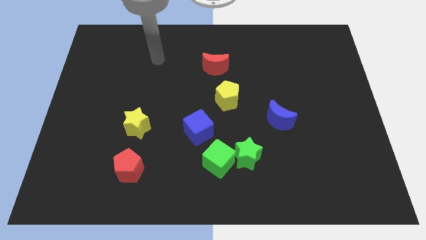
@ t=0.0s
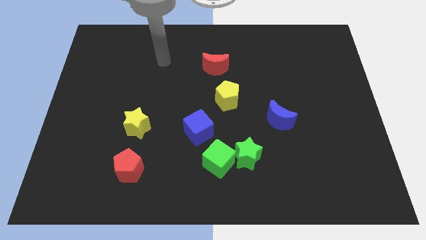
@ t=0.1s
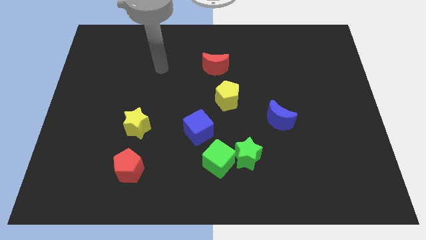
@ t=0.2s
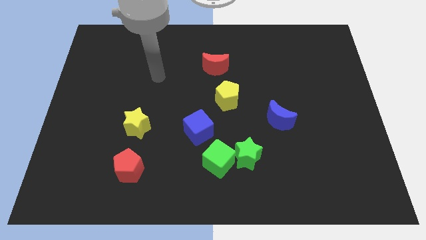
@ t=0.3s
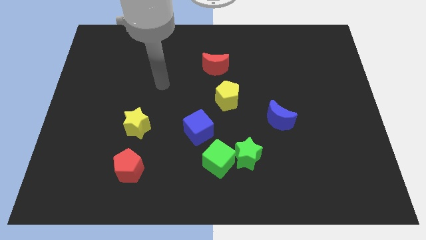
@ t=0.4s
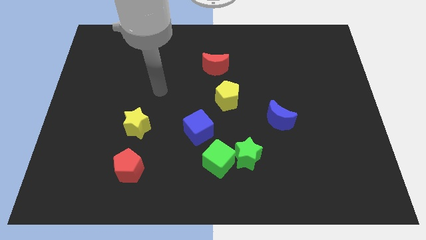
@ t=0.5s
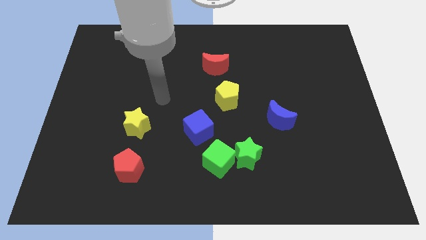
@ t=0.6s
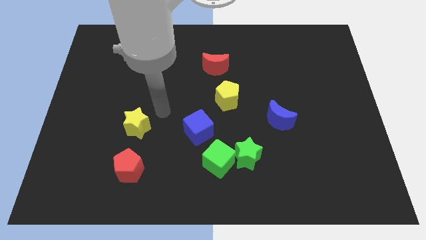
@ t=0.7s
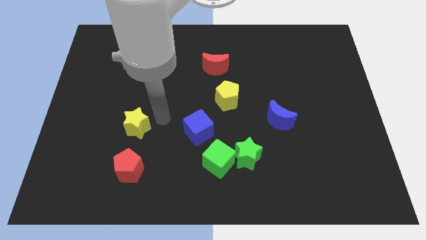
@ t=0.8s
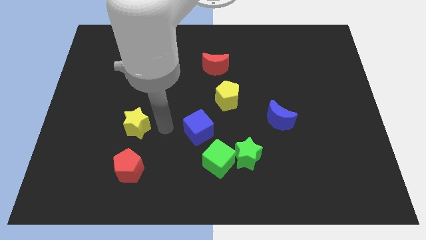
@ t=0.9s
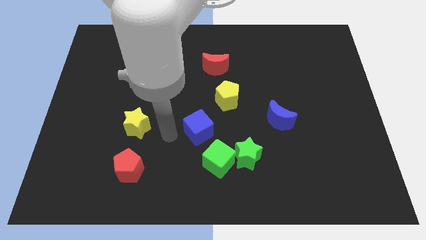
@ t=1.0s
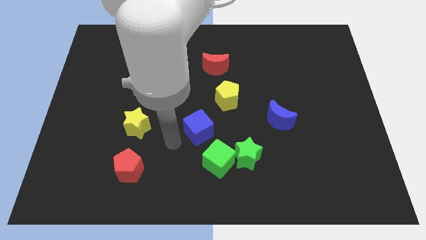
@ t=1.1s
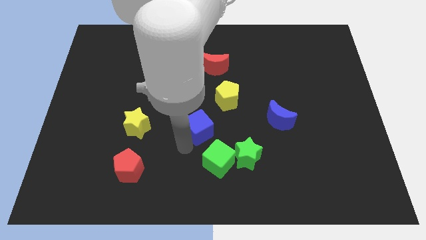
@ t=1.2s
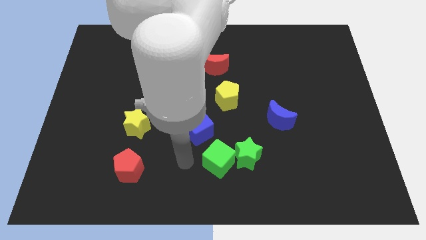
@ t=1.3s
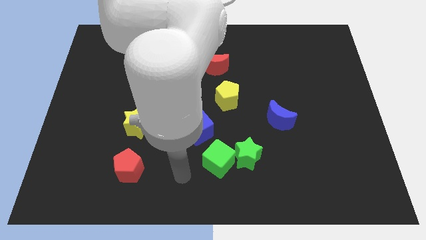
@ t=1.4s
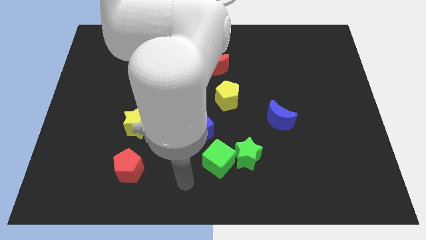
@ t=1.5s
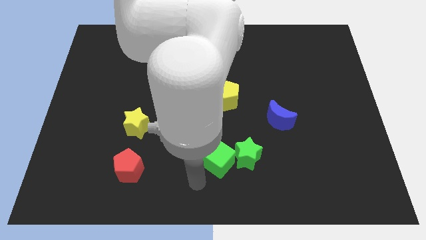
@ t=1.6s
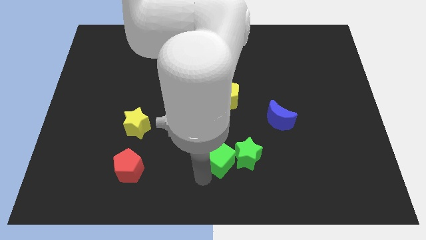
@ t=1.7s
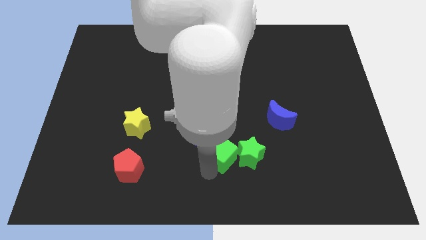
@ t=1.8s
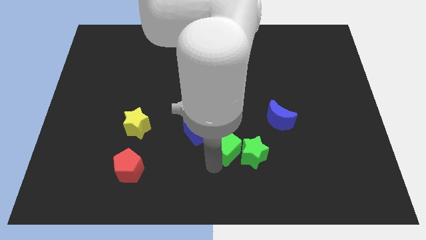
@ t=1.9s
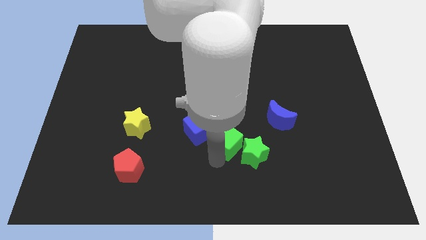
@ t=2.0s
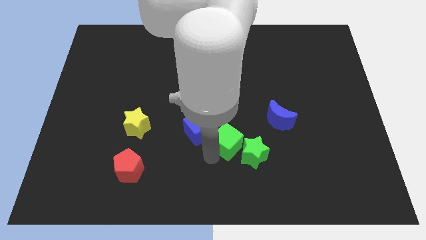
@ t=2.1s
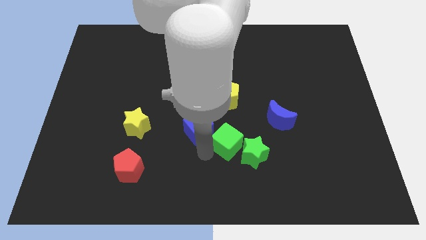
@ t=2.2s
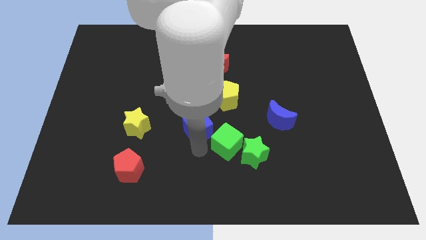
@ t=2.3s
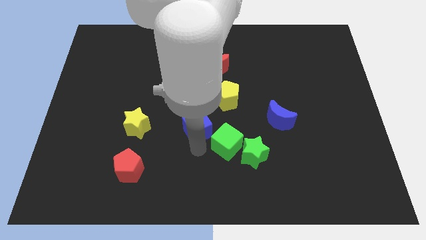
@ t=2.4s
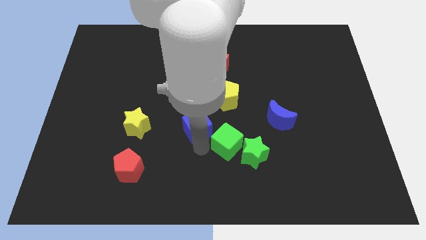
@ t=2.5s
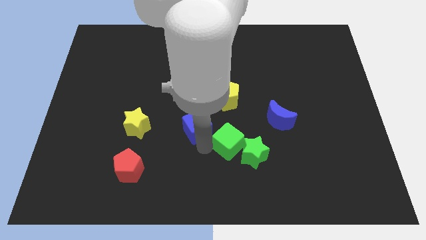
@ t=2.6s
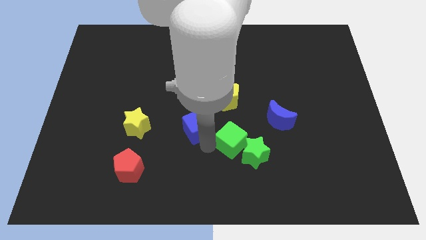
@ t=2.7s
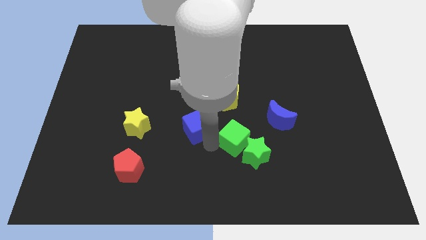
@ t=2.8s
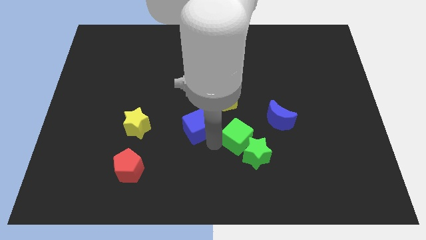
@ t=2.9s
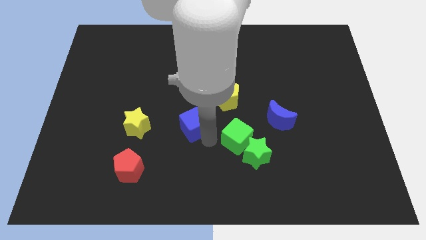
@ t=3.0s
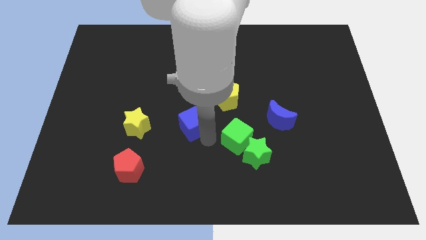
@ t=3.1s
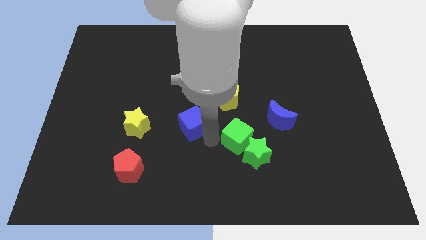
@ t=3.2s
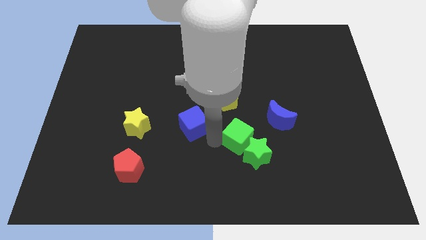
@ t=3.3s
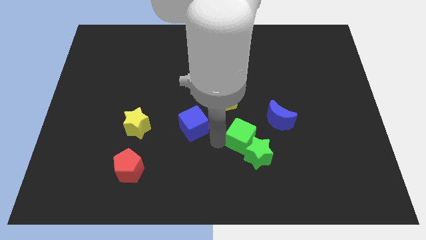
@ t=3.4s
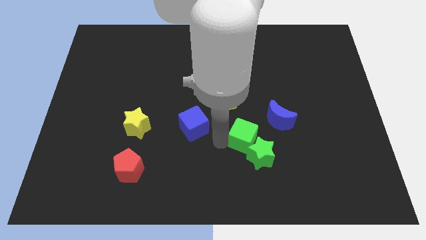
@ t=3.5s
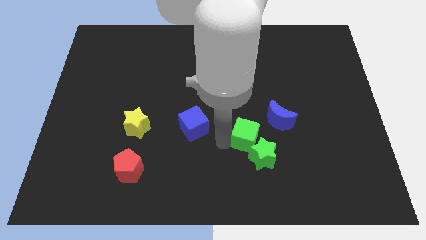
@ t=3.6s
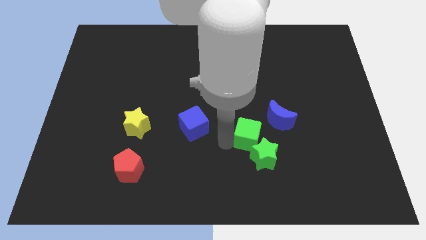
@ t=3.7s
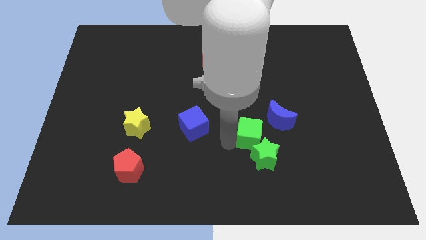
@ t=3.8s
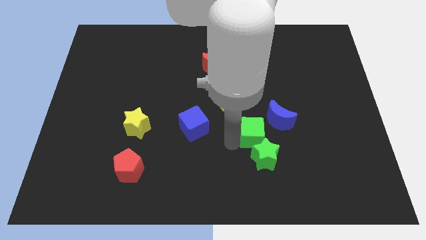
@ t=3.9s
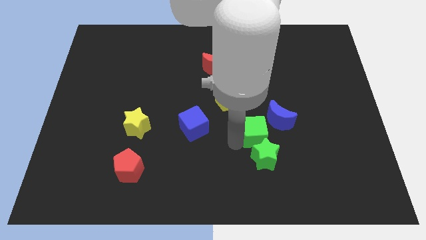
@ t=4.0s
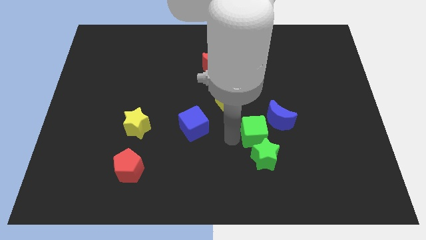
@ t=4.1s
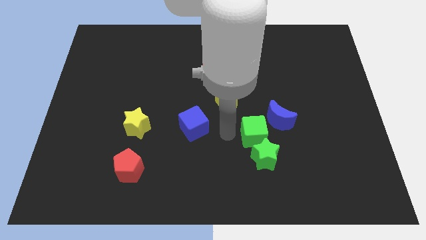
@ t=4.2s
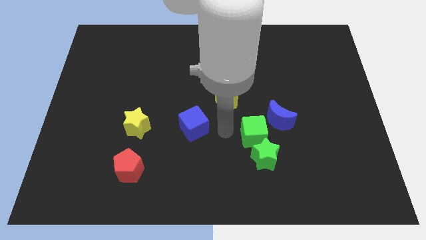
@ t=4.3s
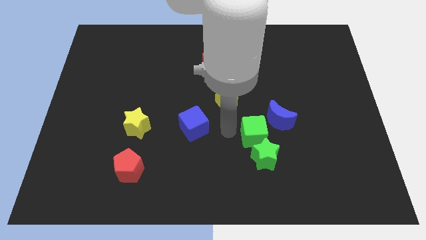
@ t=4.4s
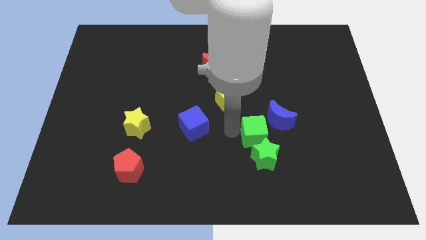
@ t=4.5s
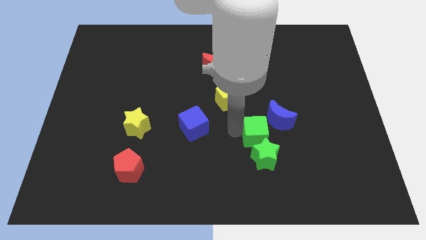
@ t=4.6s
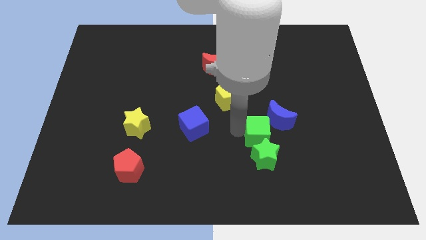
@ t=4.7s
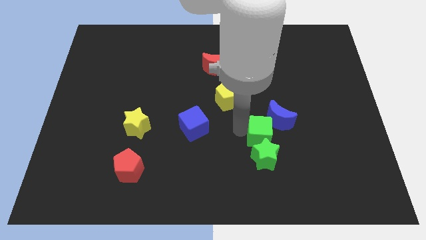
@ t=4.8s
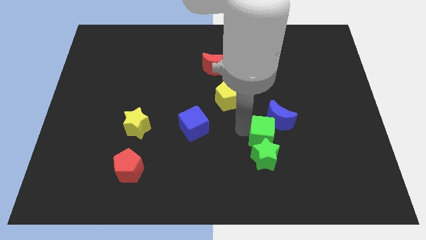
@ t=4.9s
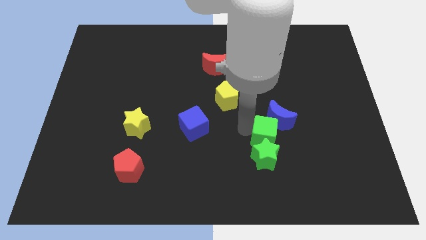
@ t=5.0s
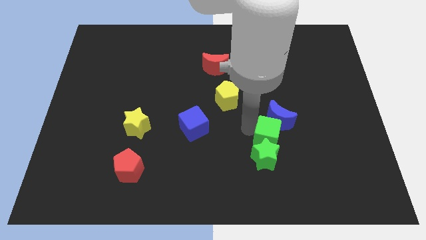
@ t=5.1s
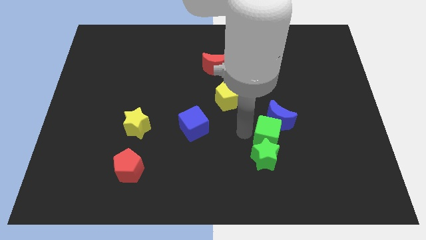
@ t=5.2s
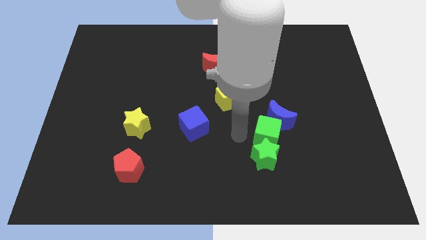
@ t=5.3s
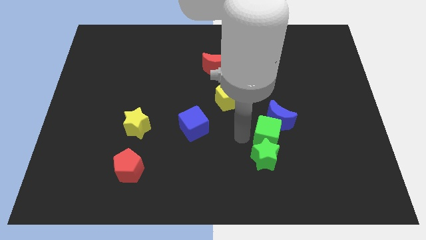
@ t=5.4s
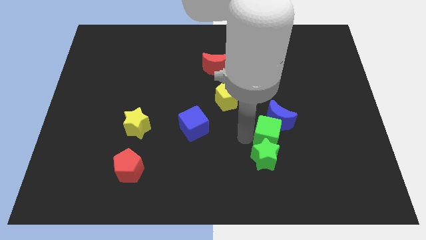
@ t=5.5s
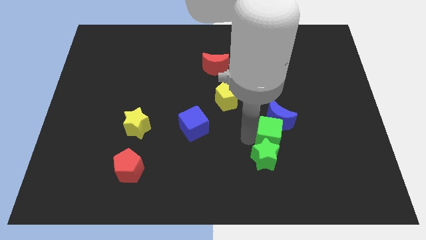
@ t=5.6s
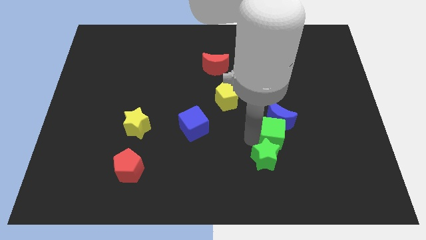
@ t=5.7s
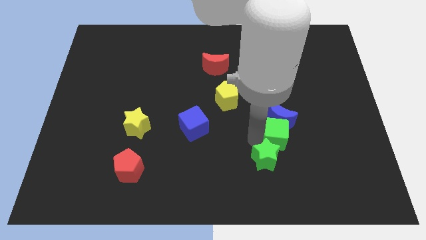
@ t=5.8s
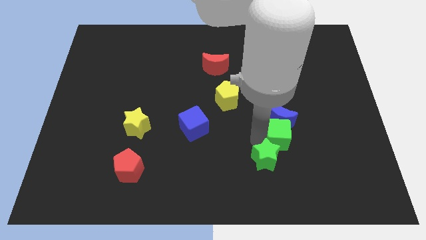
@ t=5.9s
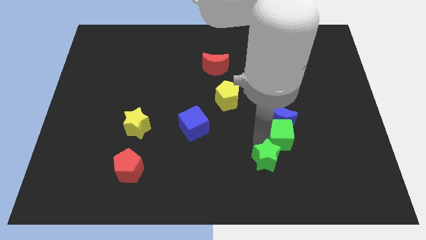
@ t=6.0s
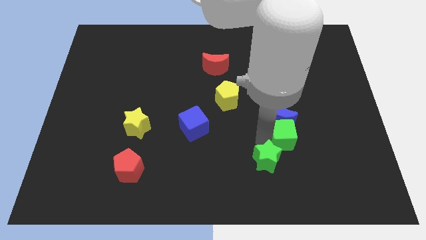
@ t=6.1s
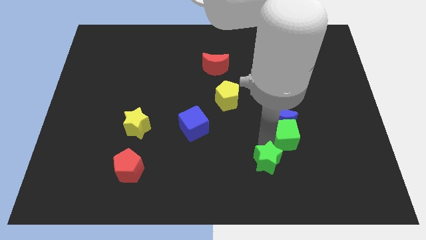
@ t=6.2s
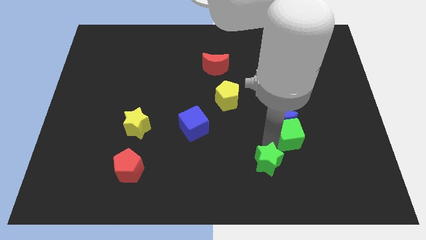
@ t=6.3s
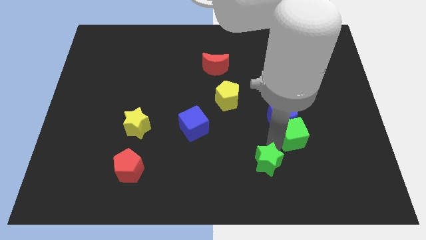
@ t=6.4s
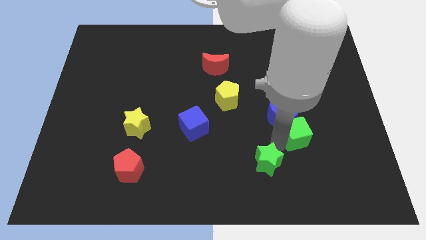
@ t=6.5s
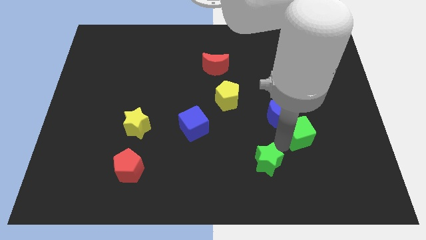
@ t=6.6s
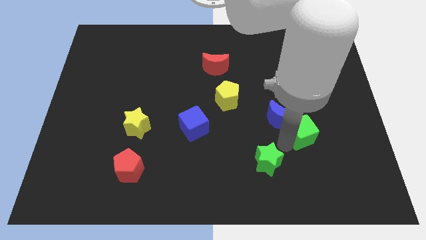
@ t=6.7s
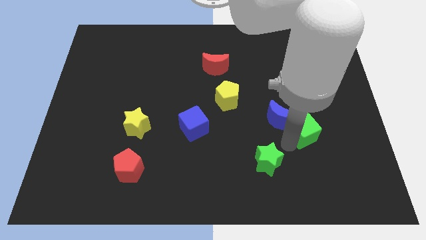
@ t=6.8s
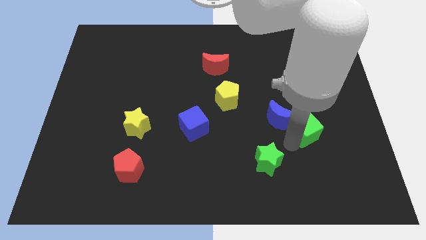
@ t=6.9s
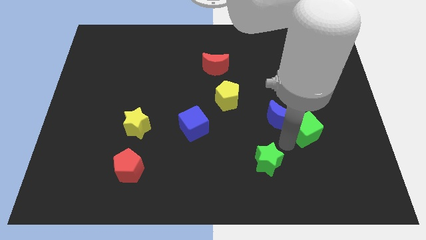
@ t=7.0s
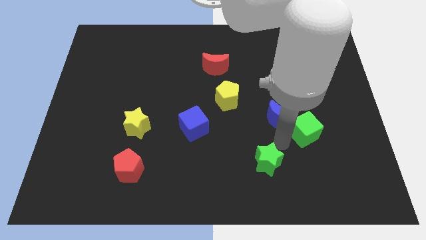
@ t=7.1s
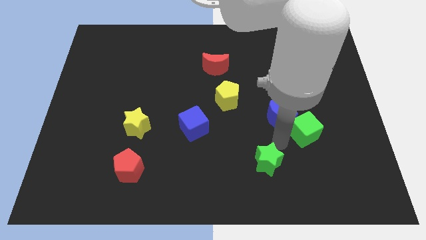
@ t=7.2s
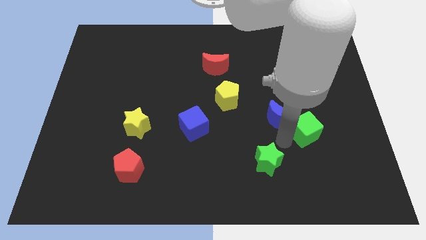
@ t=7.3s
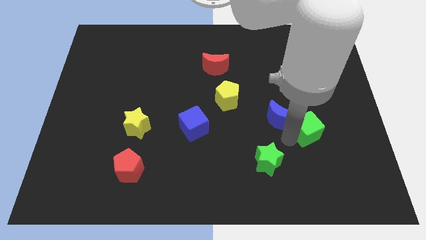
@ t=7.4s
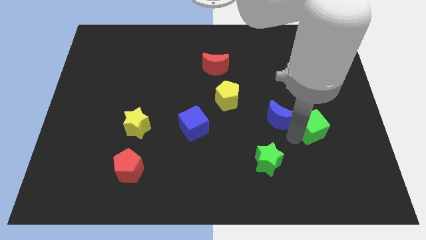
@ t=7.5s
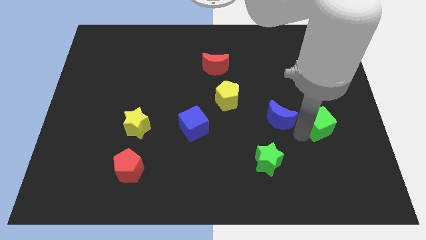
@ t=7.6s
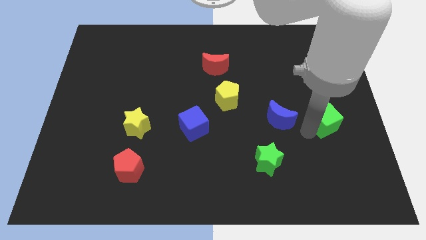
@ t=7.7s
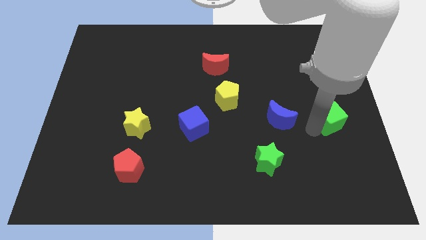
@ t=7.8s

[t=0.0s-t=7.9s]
push the green cube to the right side

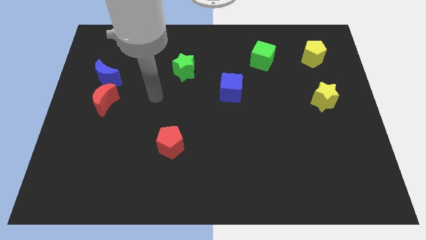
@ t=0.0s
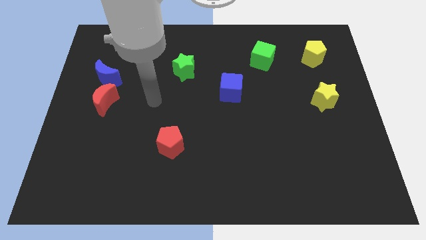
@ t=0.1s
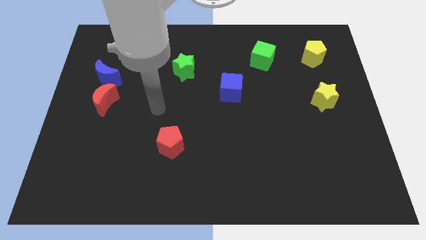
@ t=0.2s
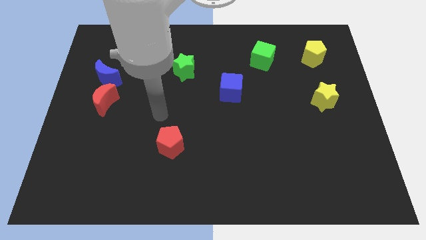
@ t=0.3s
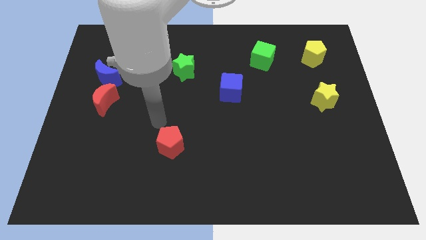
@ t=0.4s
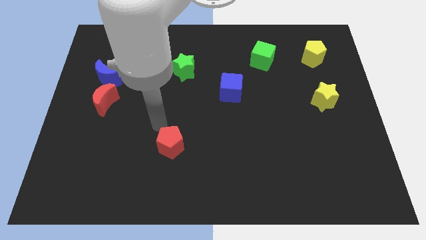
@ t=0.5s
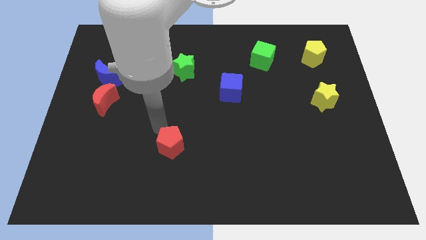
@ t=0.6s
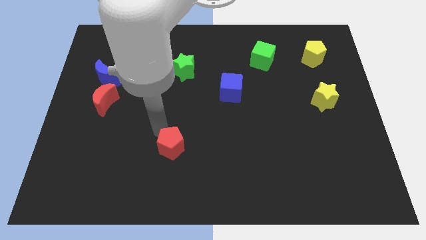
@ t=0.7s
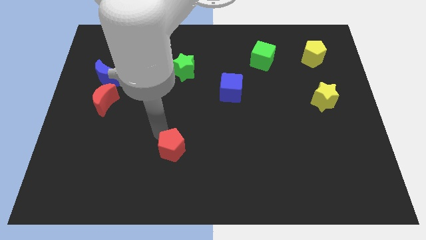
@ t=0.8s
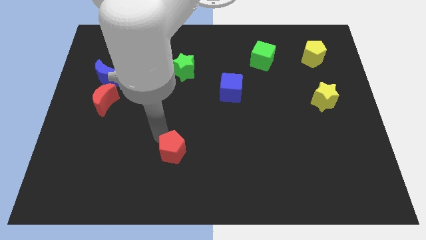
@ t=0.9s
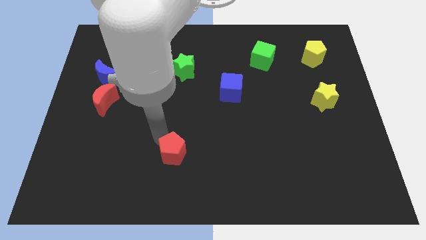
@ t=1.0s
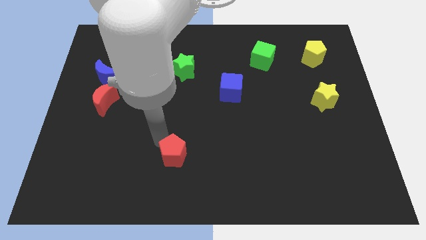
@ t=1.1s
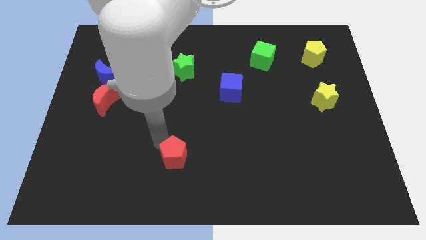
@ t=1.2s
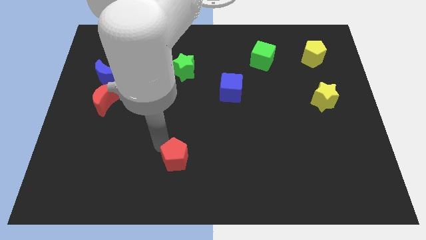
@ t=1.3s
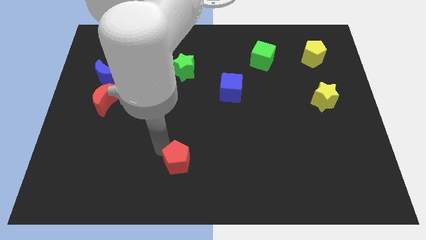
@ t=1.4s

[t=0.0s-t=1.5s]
push the red pentagon to the bottom side
